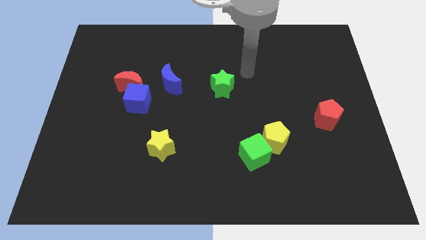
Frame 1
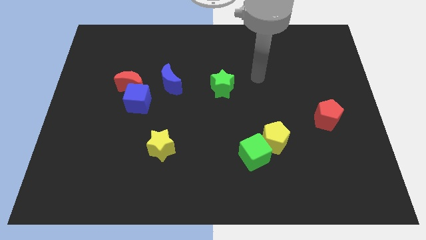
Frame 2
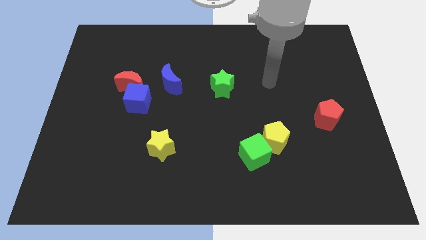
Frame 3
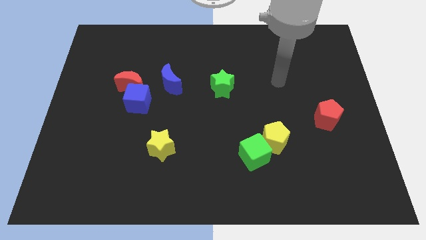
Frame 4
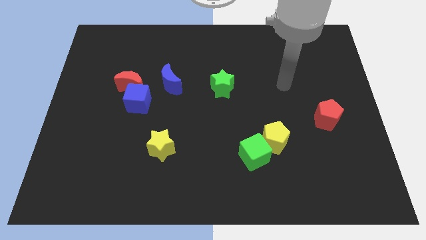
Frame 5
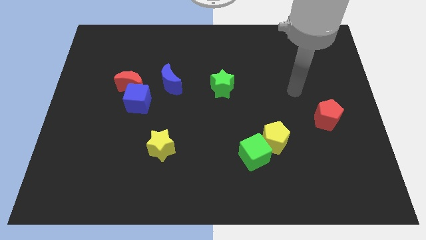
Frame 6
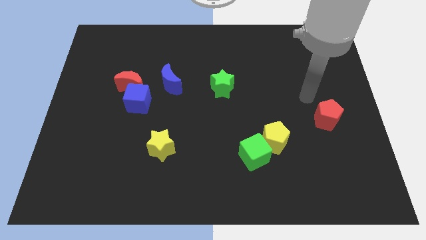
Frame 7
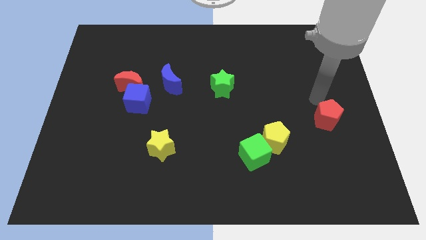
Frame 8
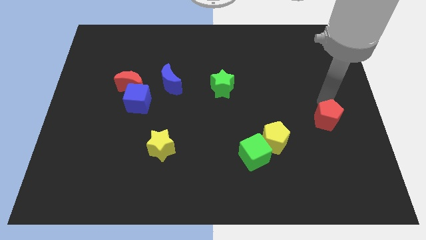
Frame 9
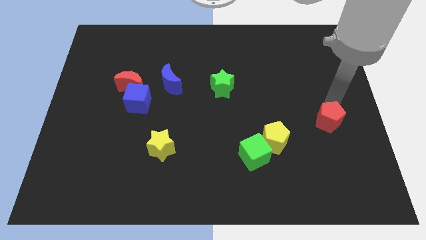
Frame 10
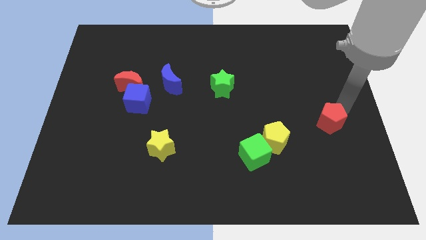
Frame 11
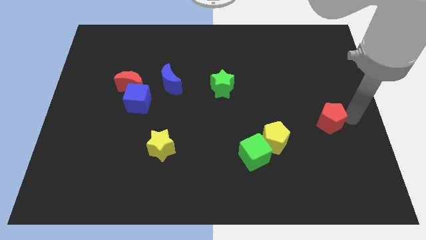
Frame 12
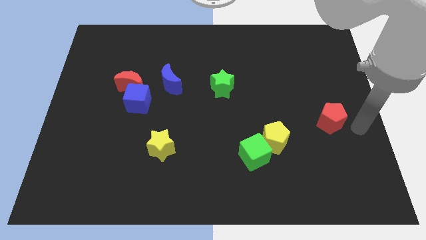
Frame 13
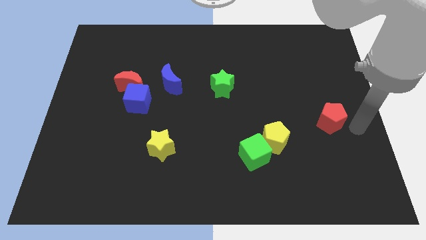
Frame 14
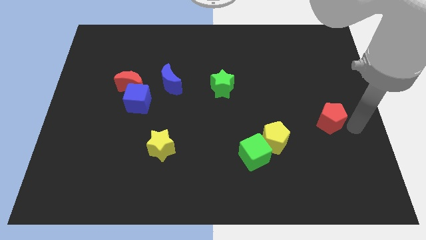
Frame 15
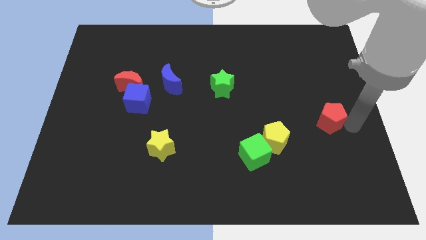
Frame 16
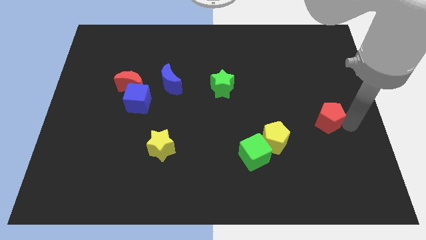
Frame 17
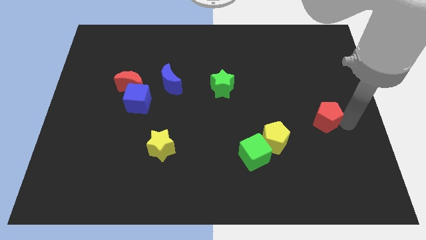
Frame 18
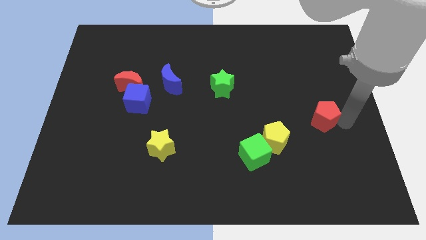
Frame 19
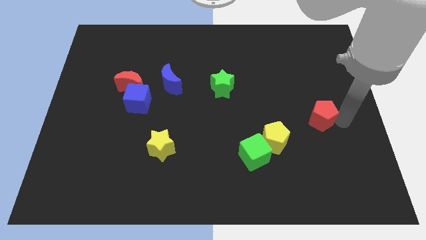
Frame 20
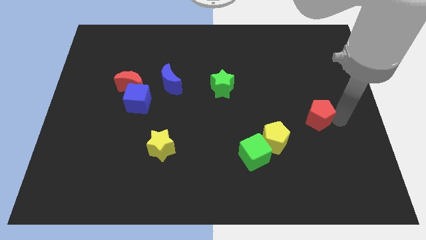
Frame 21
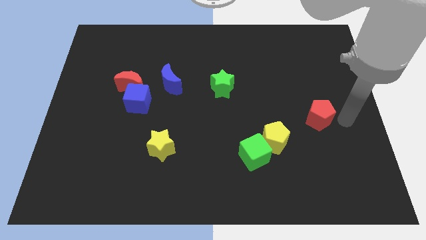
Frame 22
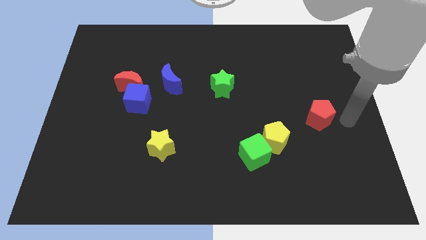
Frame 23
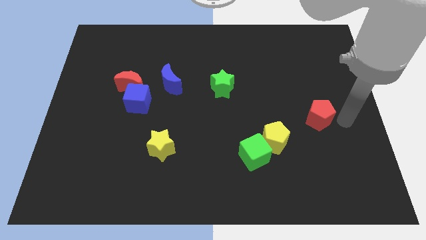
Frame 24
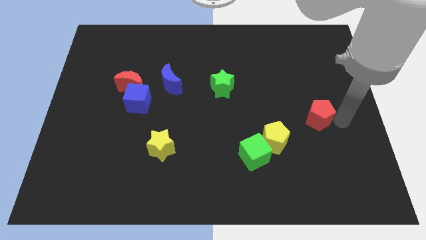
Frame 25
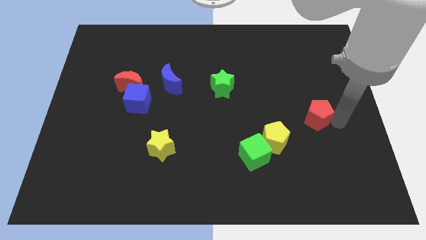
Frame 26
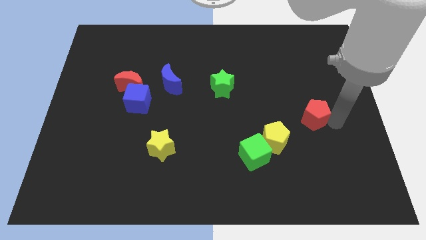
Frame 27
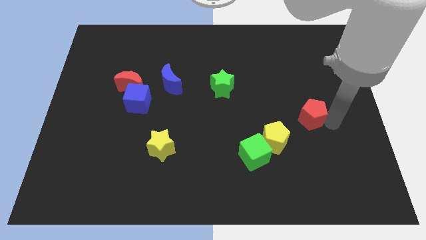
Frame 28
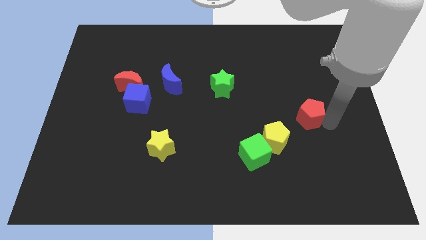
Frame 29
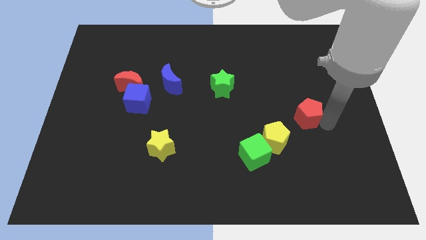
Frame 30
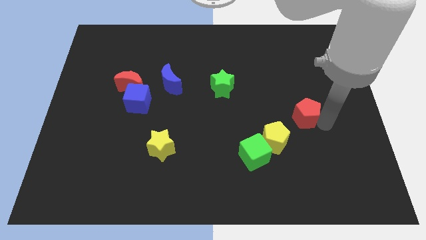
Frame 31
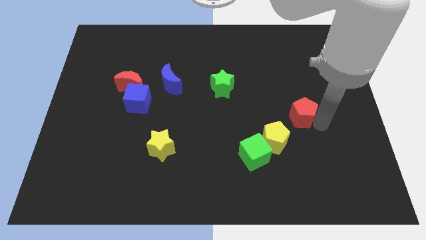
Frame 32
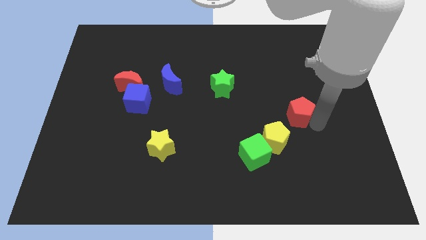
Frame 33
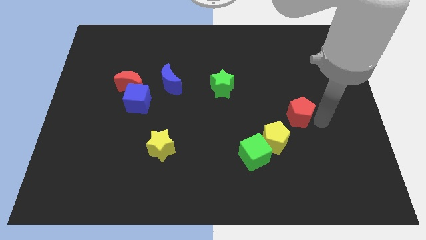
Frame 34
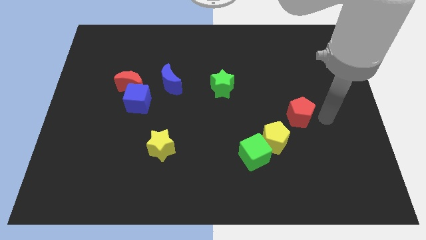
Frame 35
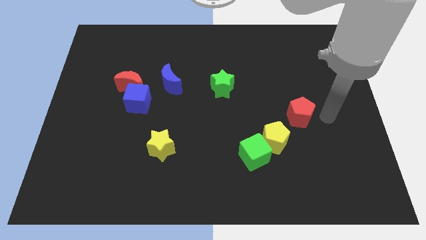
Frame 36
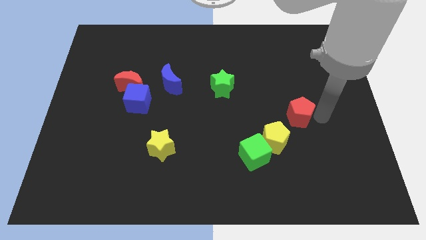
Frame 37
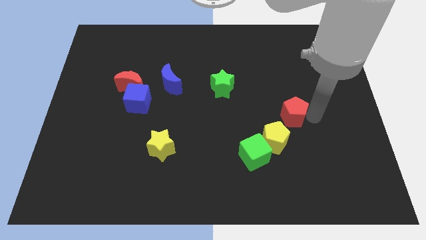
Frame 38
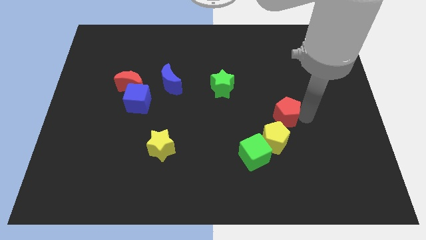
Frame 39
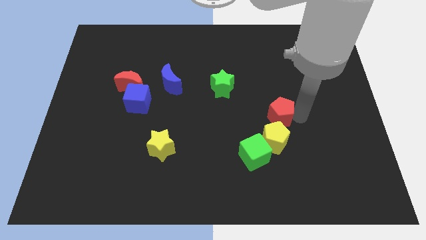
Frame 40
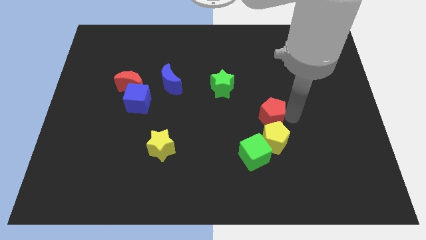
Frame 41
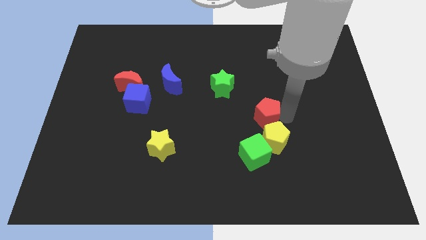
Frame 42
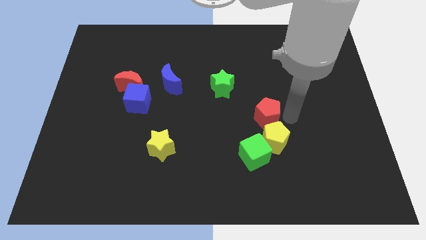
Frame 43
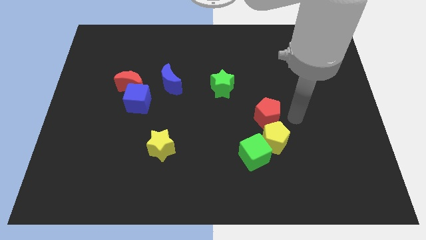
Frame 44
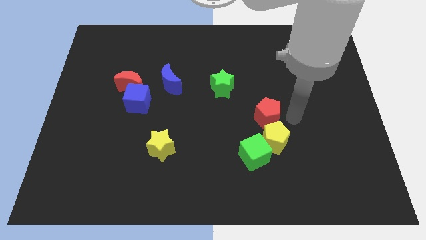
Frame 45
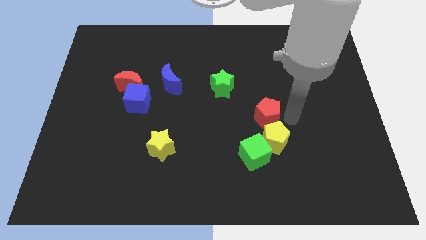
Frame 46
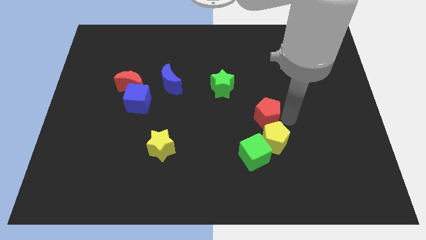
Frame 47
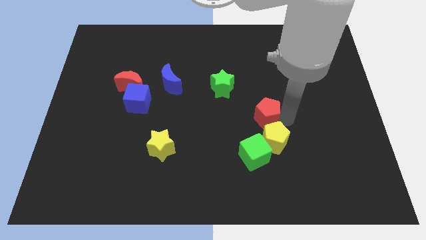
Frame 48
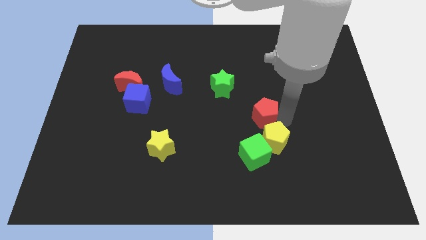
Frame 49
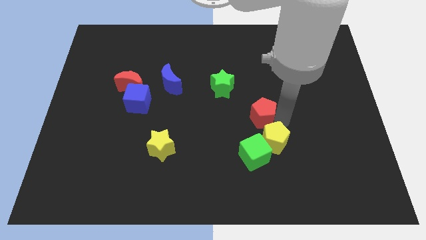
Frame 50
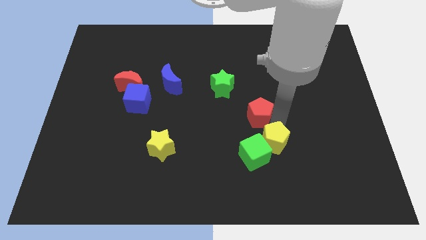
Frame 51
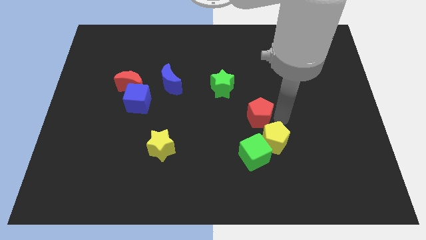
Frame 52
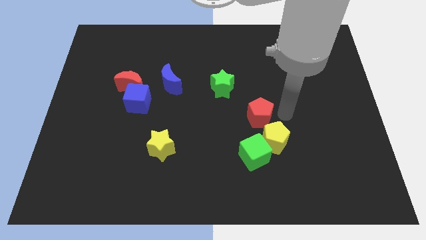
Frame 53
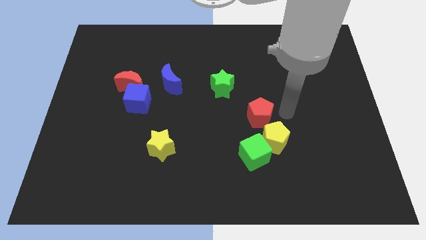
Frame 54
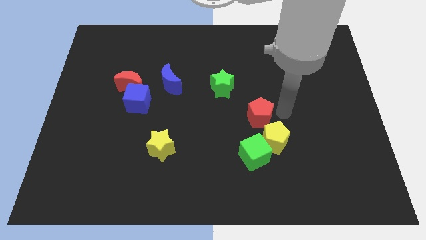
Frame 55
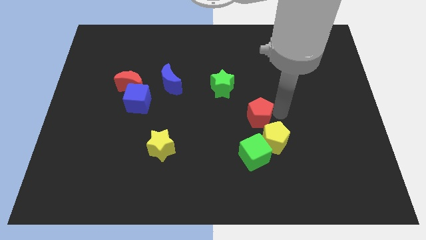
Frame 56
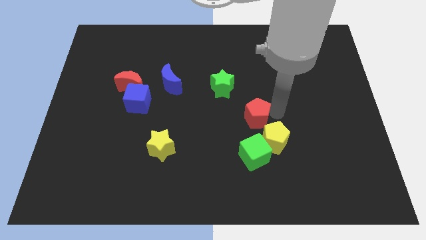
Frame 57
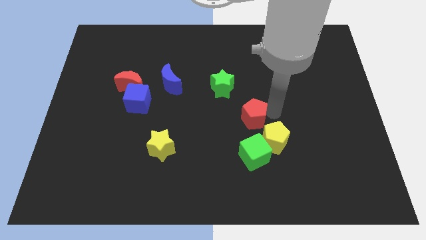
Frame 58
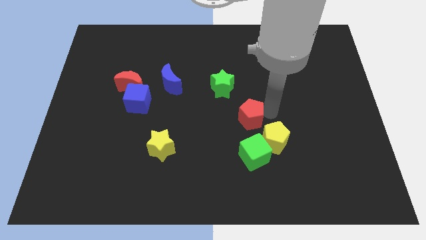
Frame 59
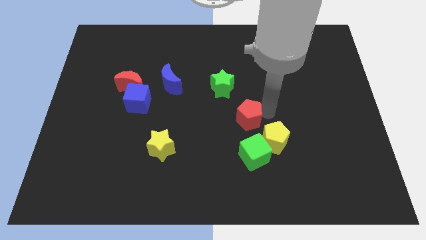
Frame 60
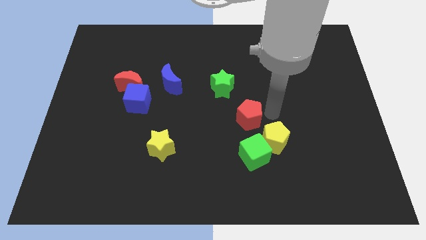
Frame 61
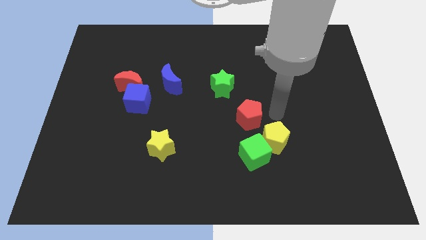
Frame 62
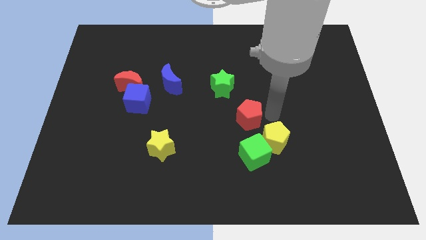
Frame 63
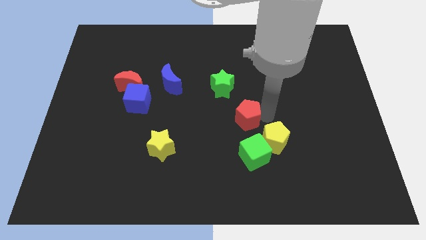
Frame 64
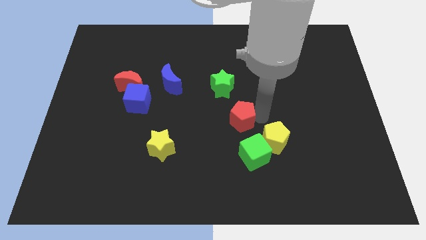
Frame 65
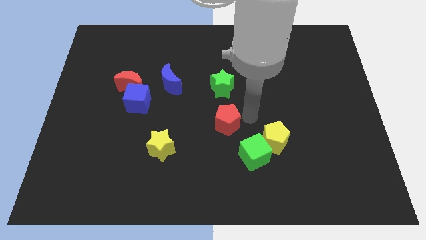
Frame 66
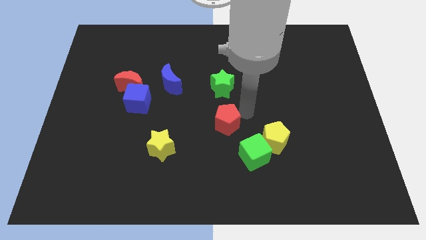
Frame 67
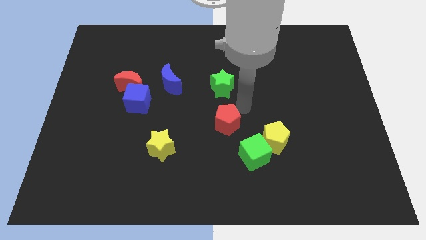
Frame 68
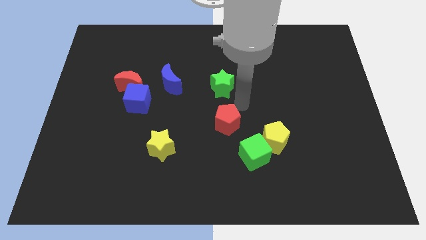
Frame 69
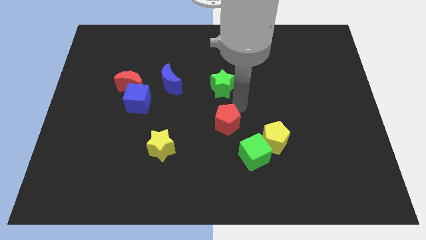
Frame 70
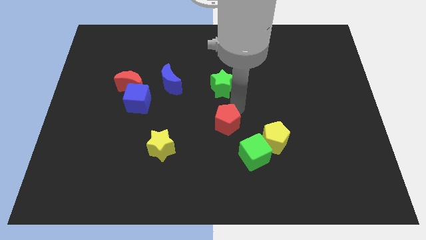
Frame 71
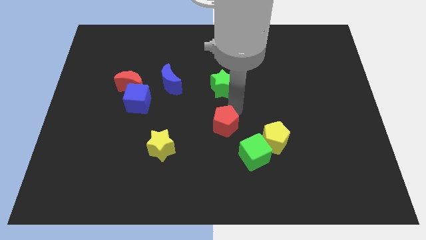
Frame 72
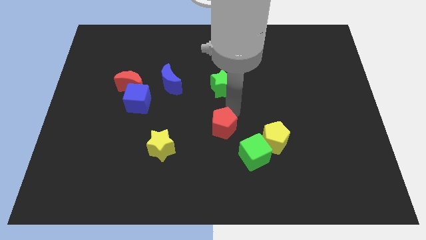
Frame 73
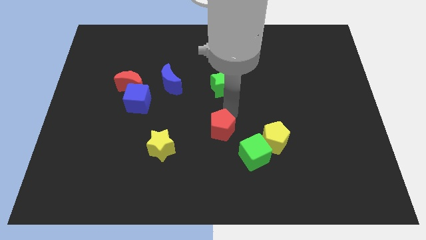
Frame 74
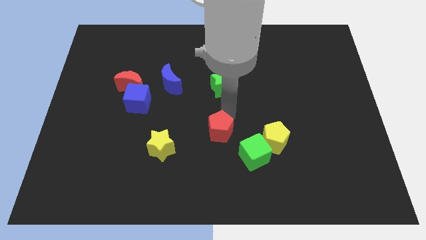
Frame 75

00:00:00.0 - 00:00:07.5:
push the red pentagon to the right side of the yellow star
